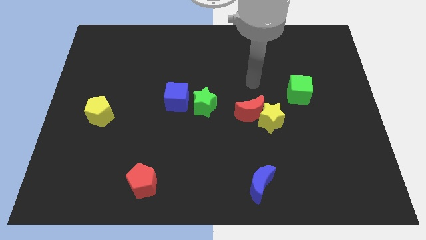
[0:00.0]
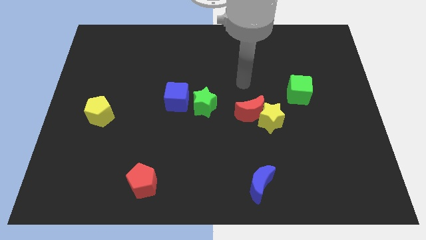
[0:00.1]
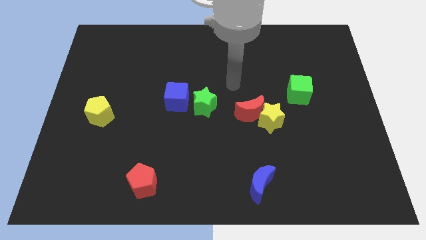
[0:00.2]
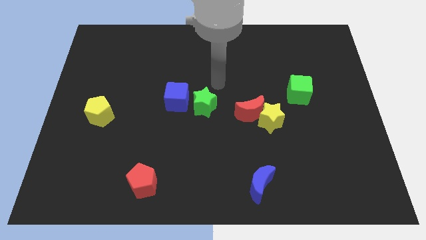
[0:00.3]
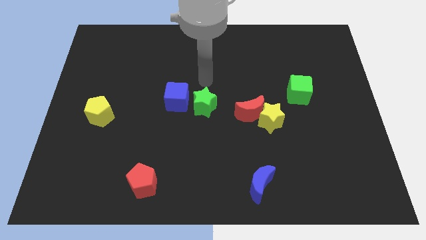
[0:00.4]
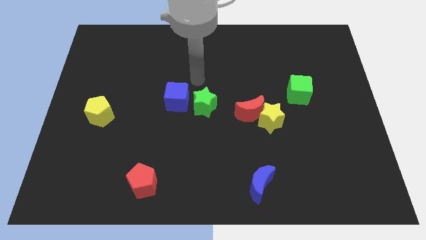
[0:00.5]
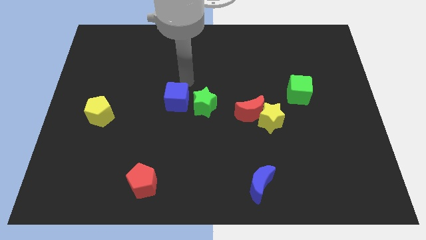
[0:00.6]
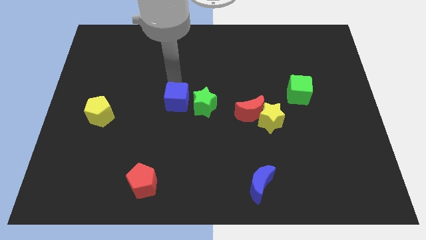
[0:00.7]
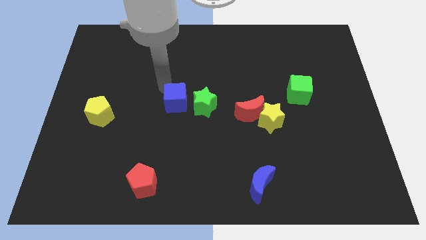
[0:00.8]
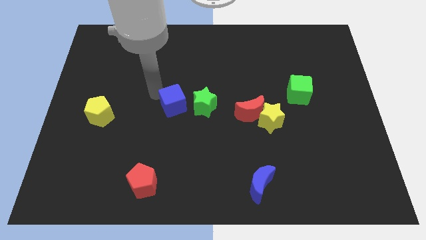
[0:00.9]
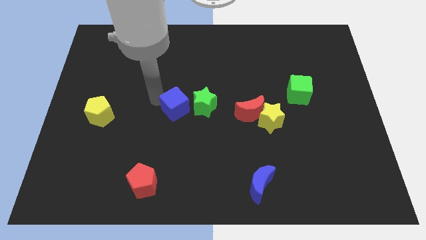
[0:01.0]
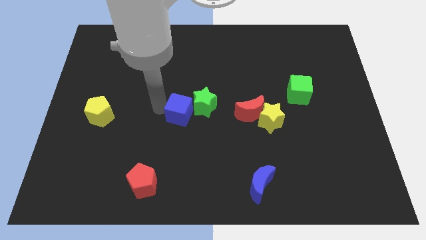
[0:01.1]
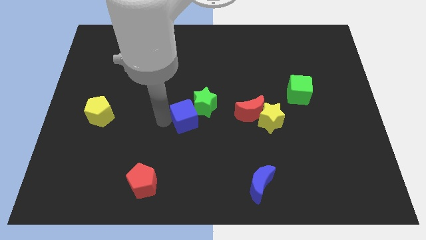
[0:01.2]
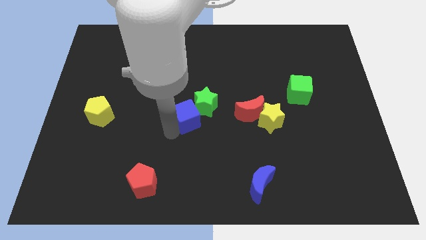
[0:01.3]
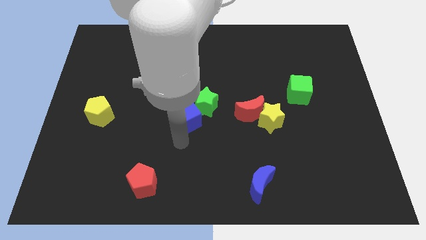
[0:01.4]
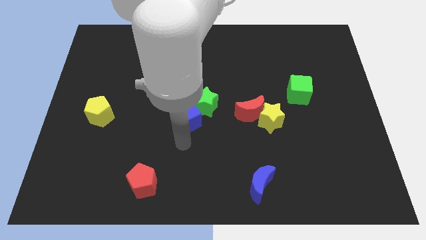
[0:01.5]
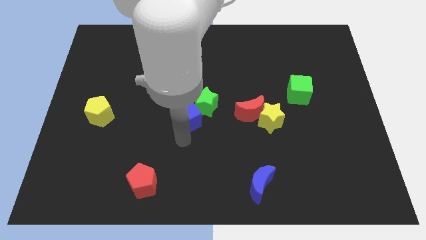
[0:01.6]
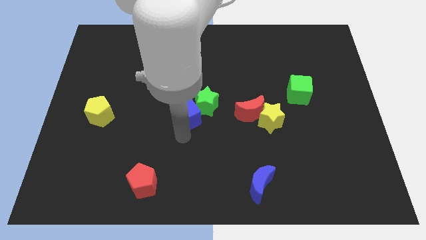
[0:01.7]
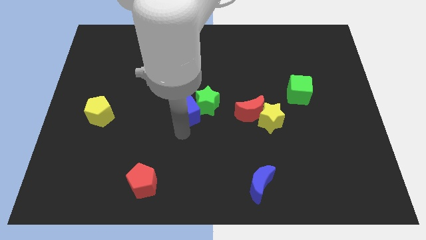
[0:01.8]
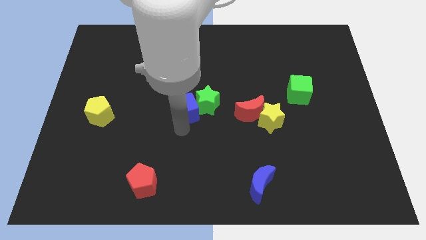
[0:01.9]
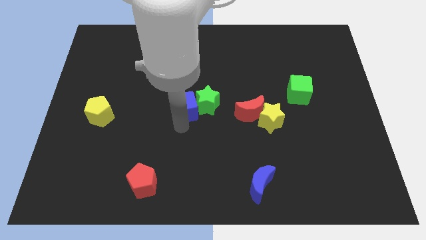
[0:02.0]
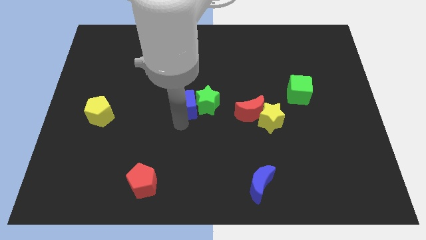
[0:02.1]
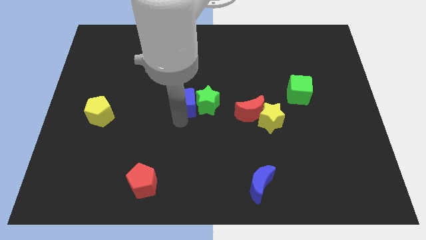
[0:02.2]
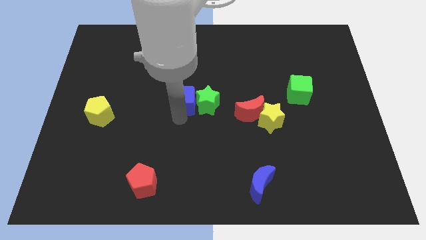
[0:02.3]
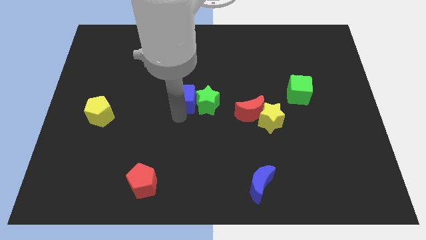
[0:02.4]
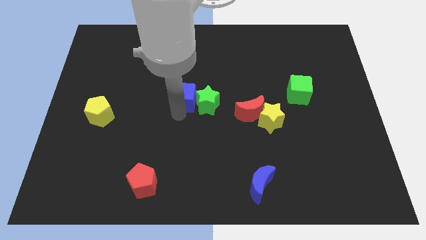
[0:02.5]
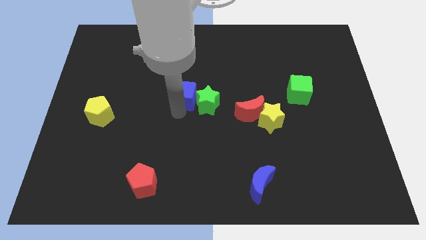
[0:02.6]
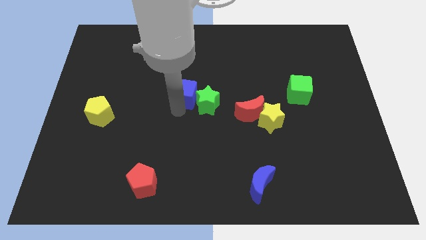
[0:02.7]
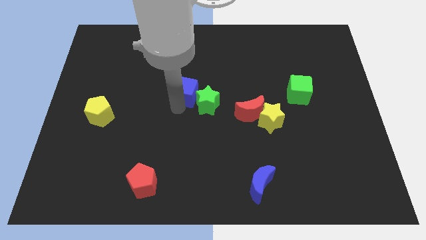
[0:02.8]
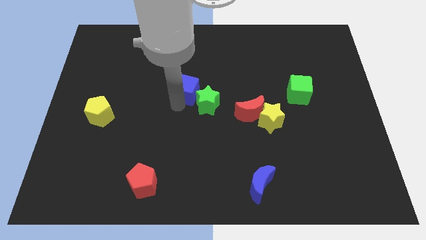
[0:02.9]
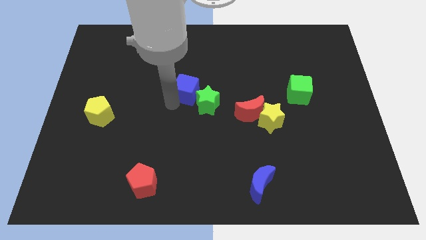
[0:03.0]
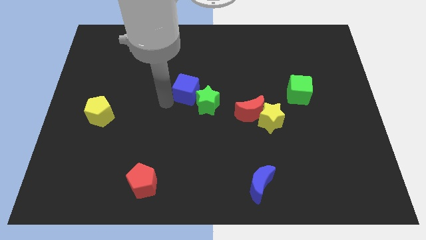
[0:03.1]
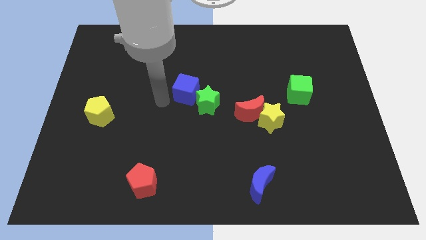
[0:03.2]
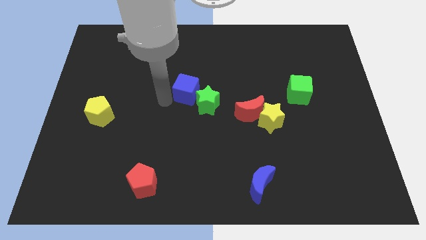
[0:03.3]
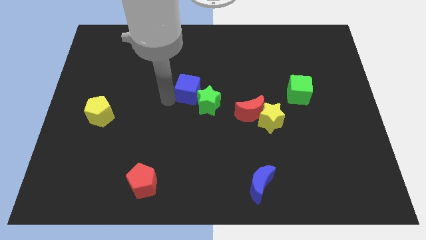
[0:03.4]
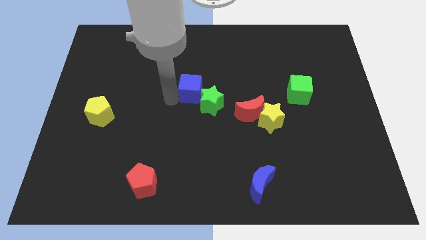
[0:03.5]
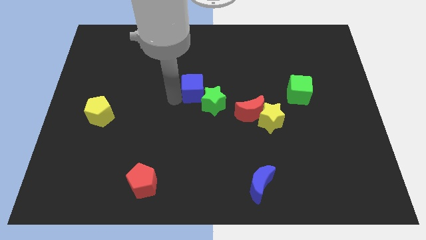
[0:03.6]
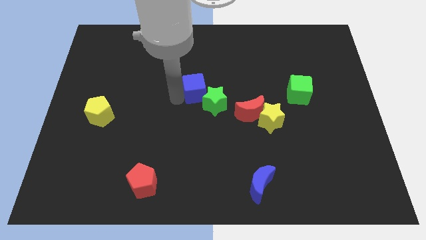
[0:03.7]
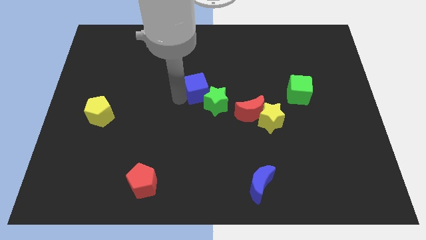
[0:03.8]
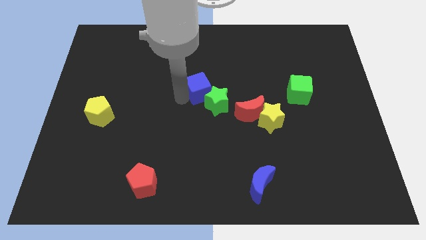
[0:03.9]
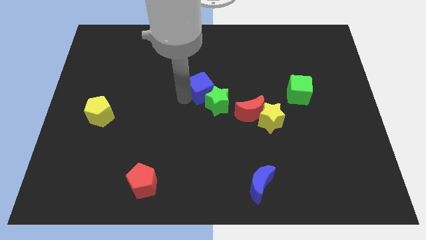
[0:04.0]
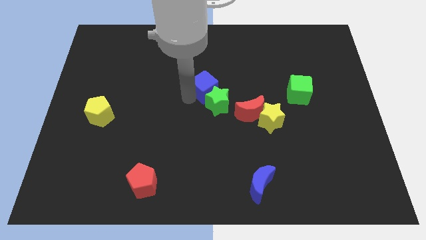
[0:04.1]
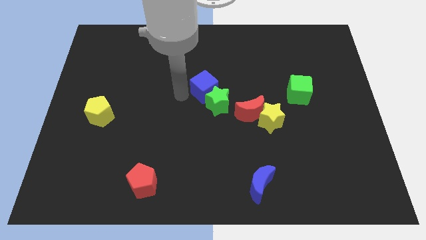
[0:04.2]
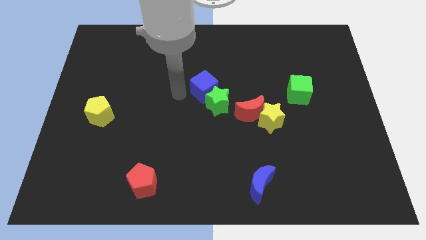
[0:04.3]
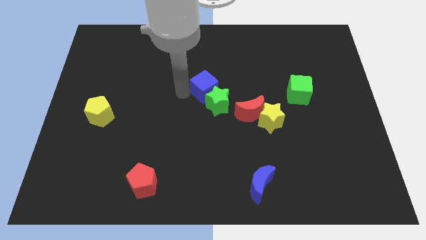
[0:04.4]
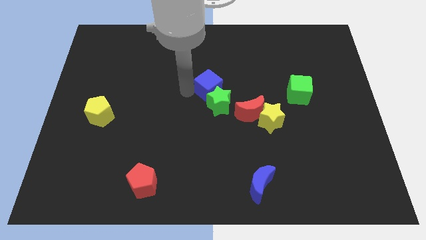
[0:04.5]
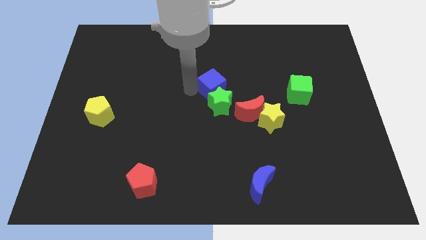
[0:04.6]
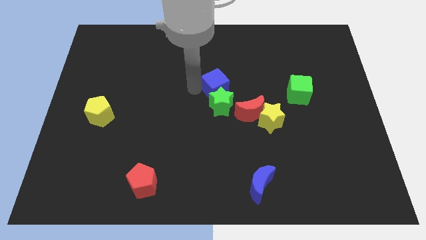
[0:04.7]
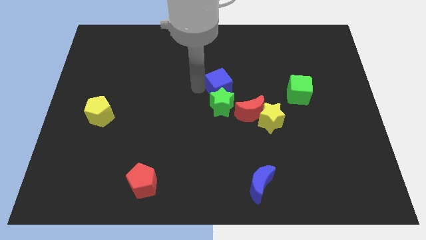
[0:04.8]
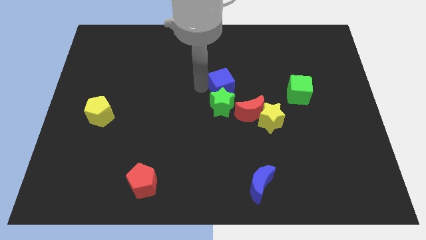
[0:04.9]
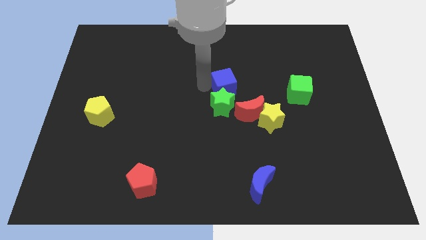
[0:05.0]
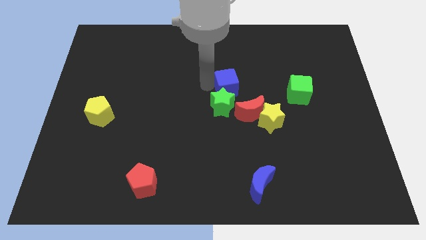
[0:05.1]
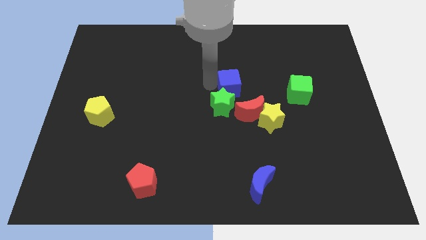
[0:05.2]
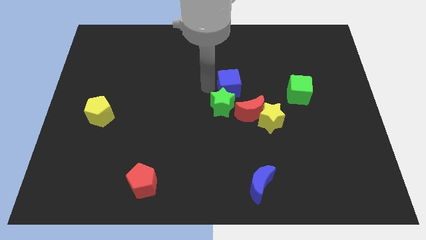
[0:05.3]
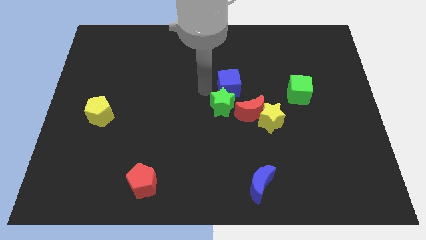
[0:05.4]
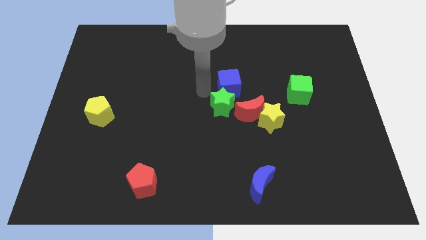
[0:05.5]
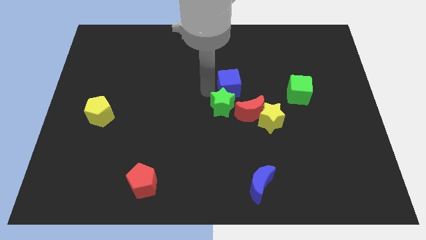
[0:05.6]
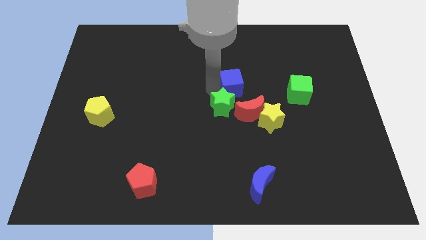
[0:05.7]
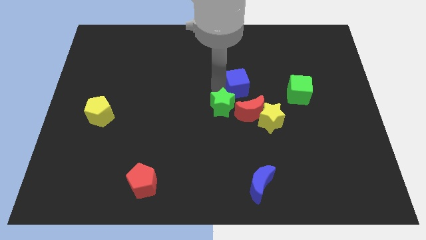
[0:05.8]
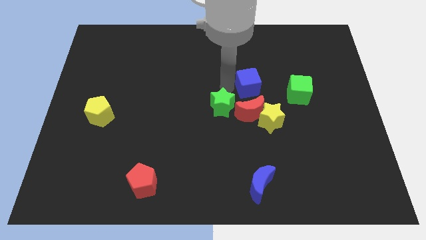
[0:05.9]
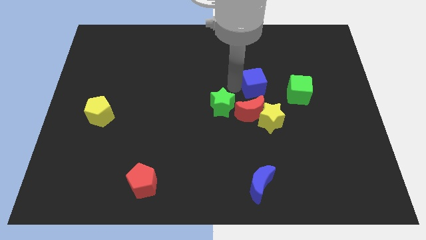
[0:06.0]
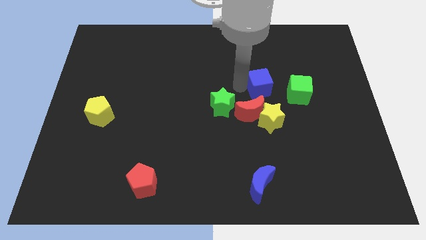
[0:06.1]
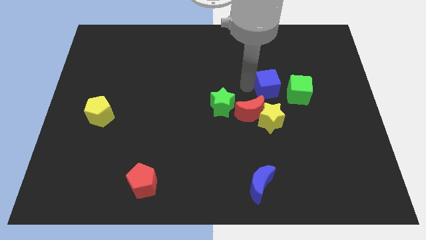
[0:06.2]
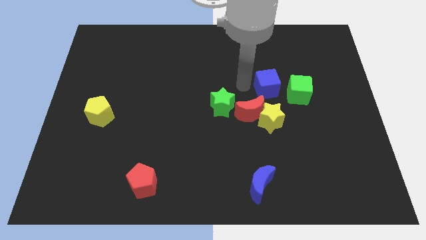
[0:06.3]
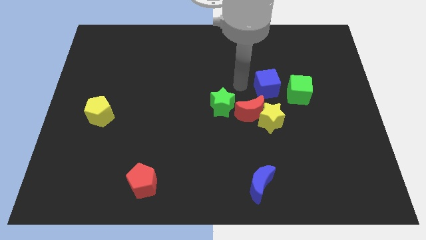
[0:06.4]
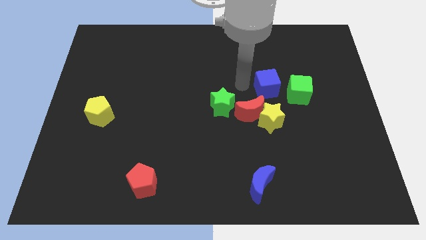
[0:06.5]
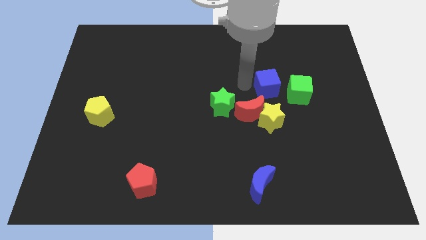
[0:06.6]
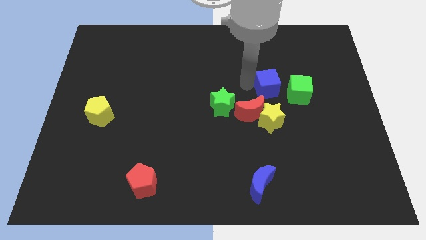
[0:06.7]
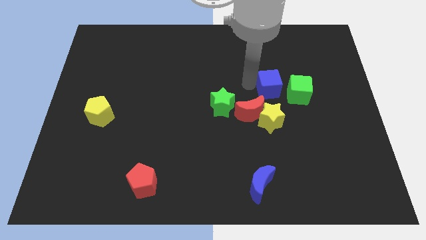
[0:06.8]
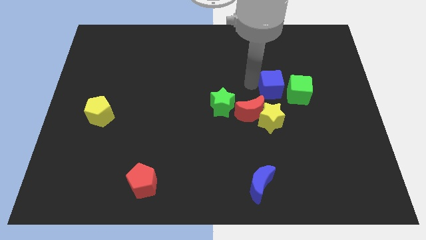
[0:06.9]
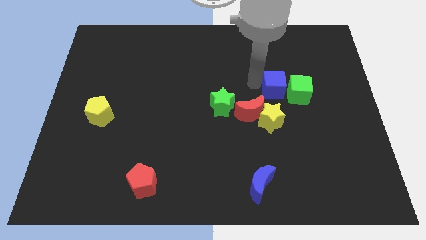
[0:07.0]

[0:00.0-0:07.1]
move the blue cube to the green cube
